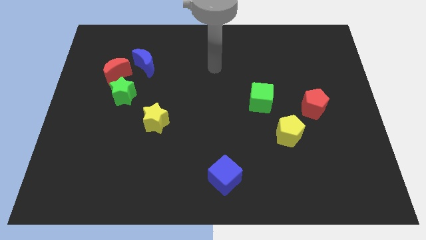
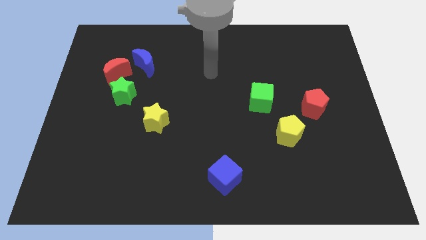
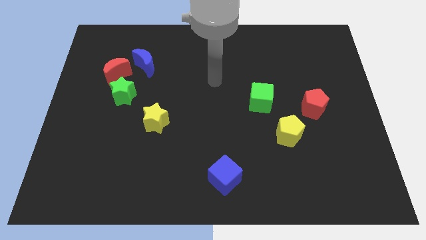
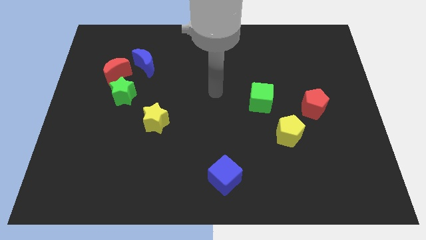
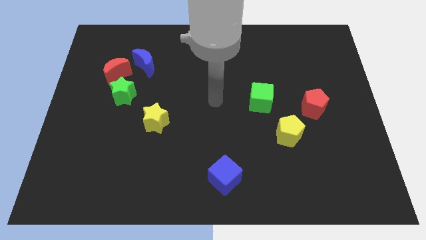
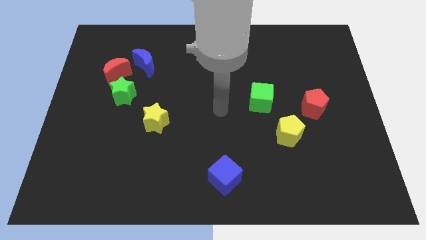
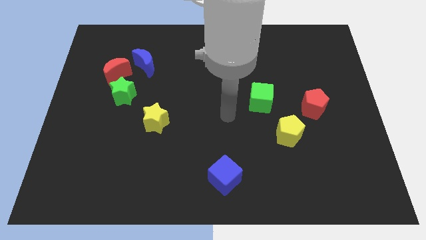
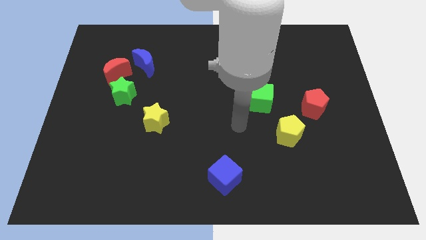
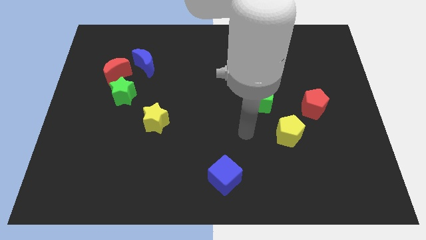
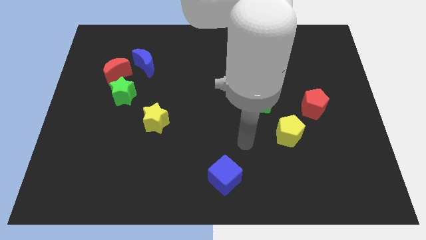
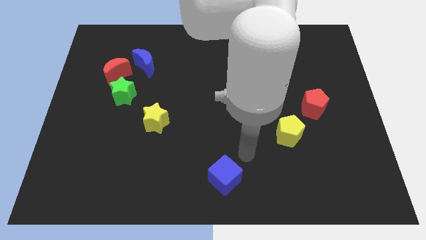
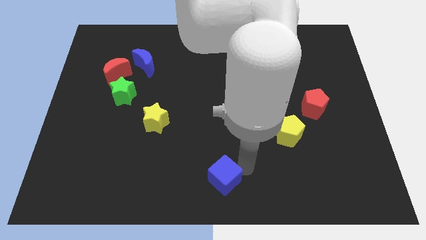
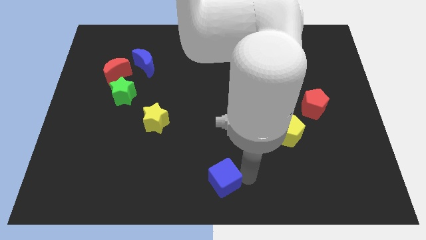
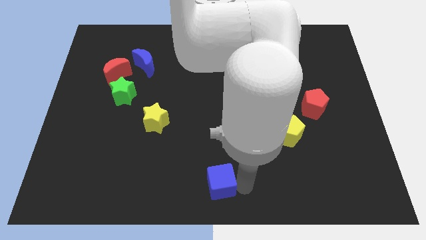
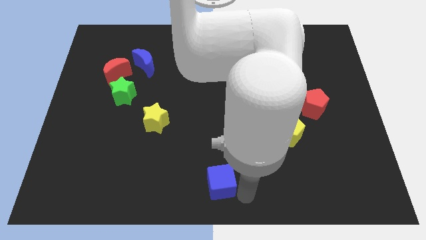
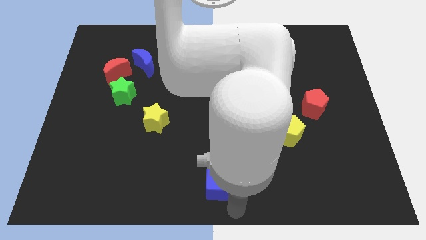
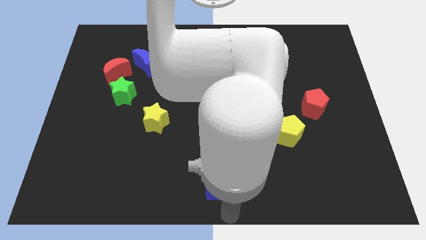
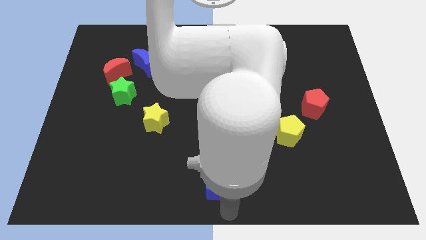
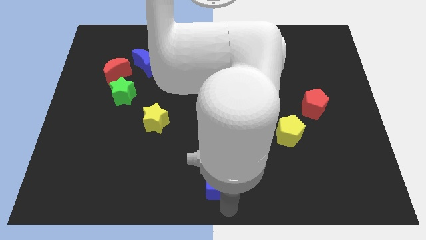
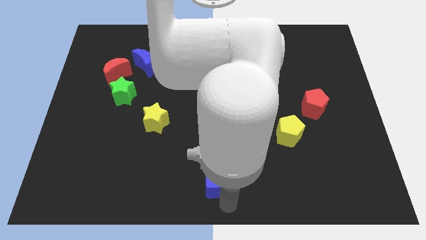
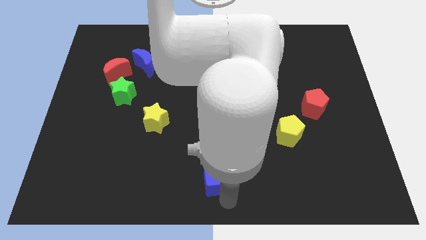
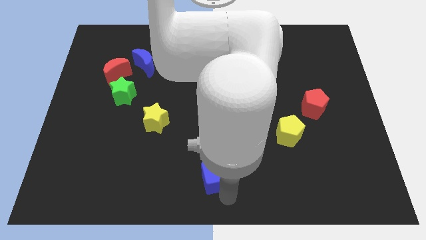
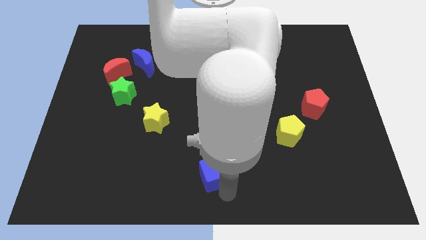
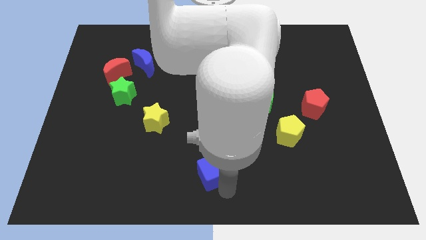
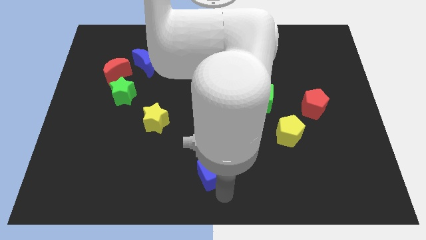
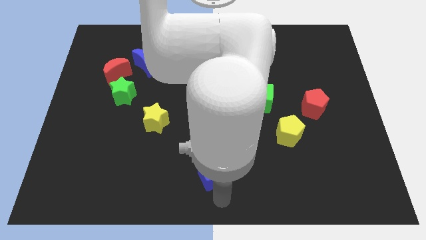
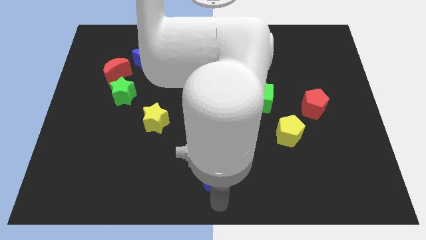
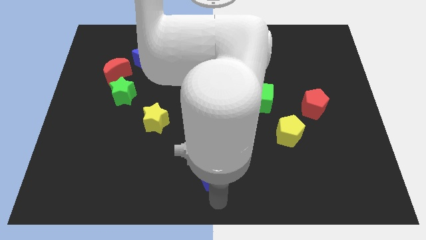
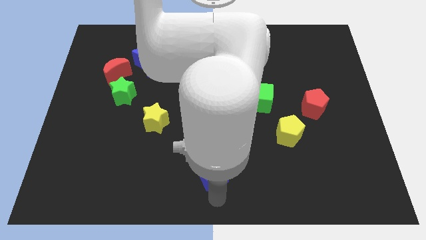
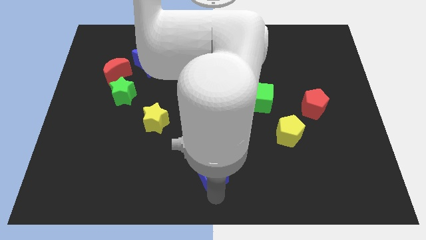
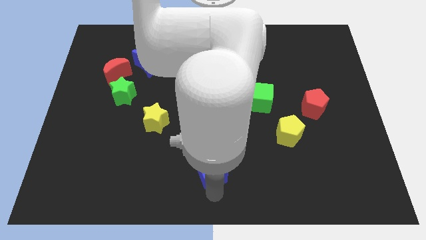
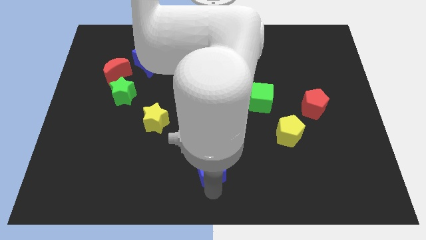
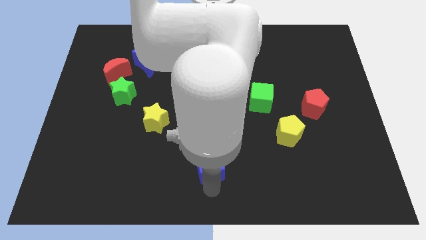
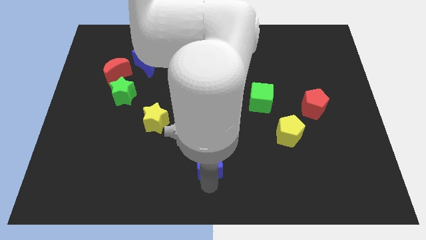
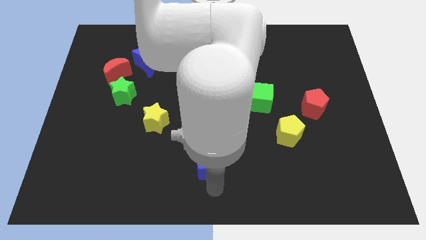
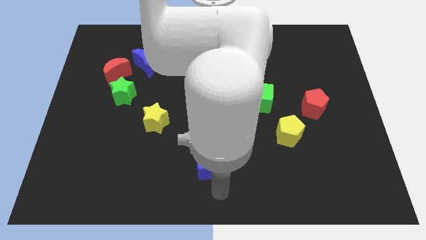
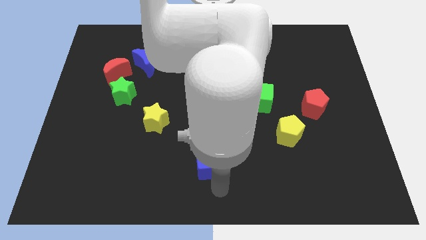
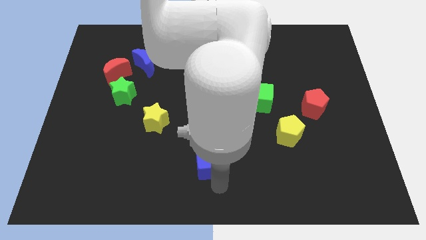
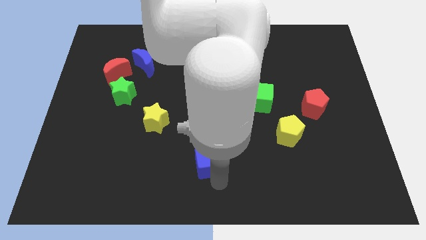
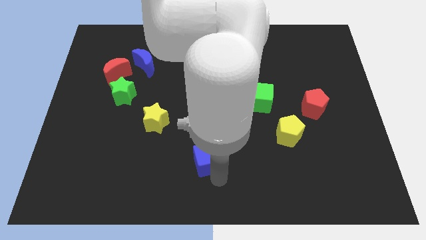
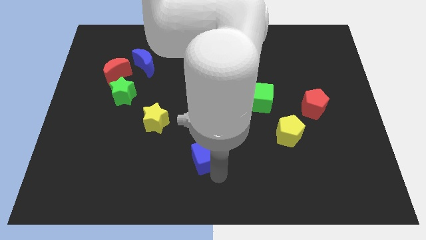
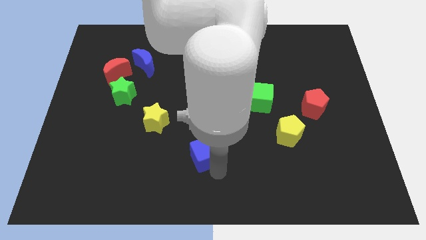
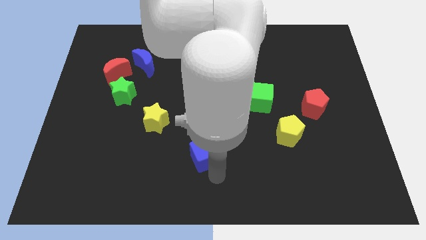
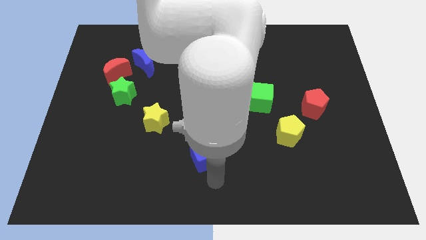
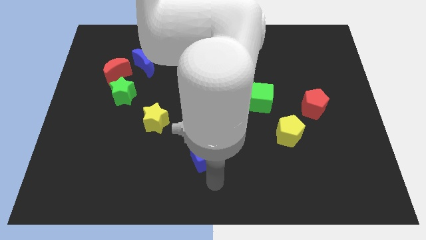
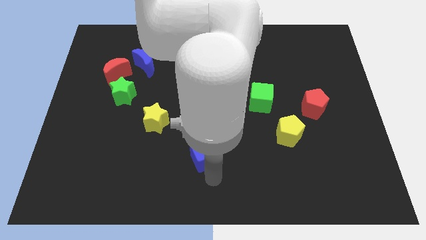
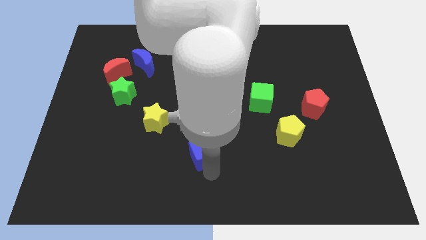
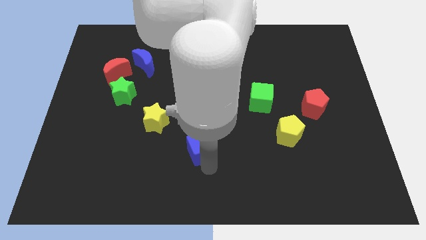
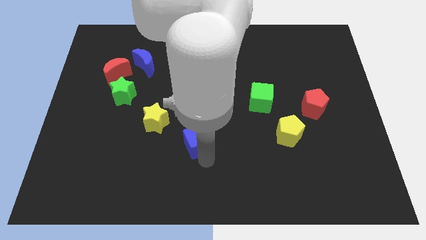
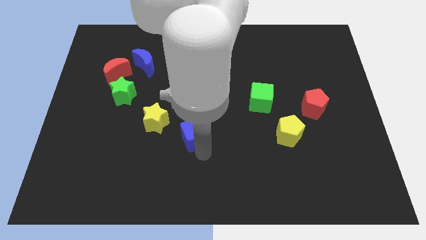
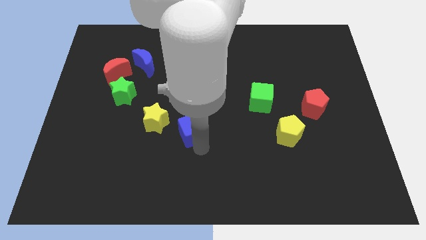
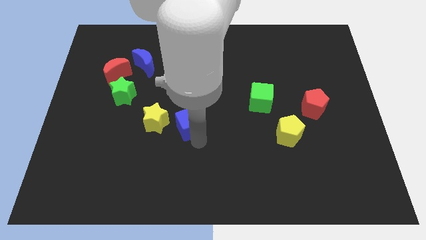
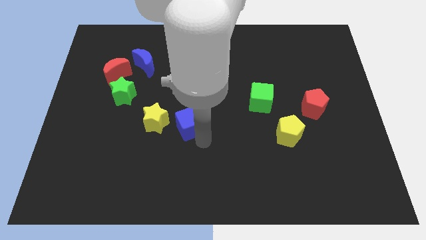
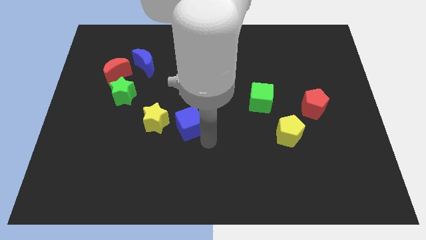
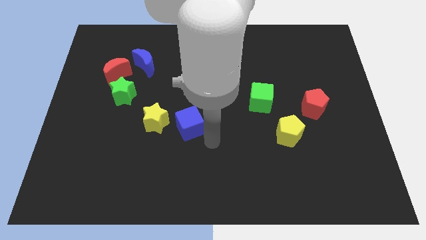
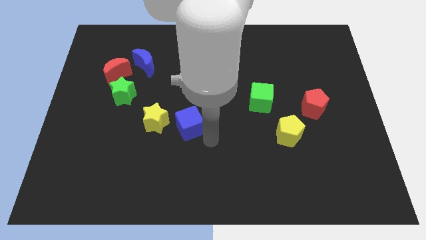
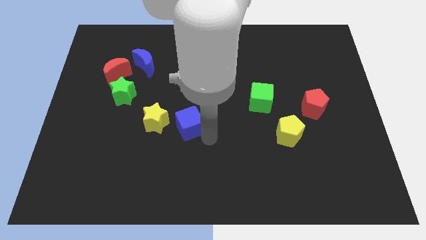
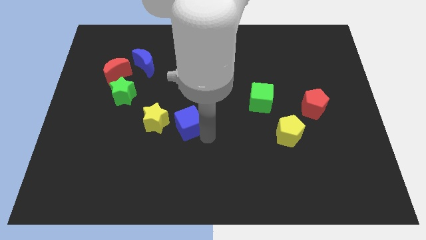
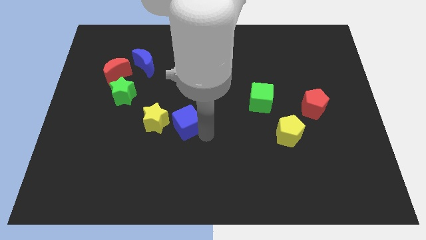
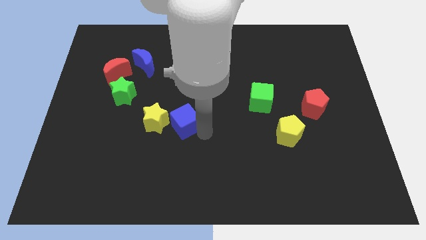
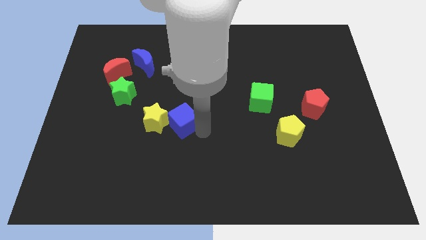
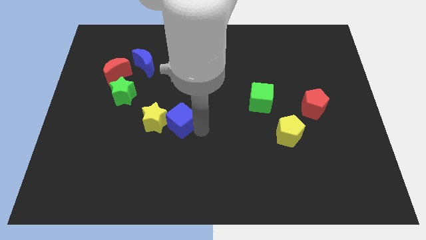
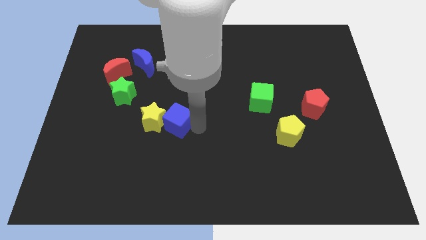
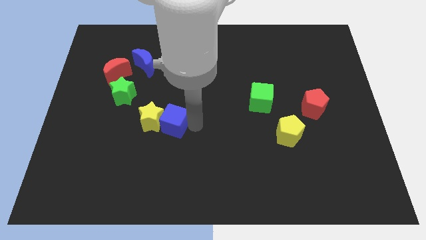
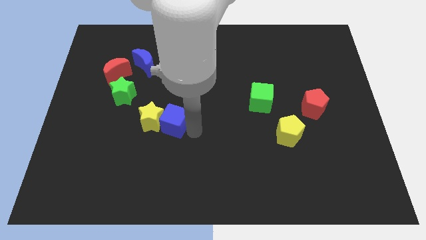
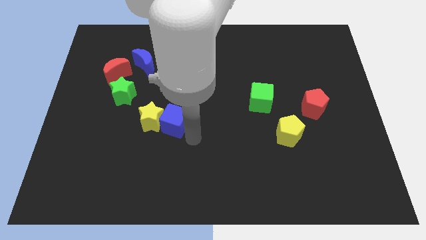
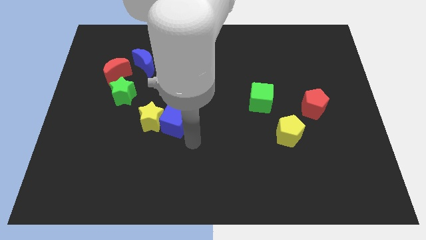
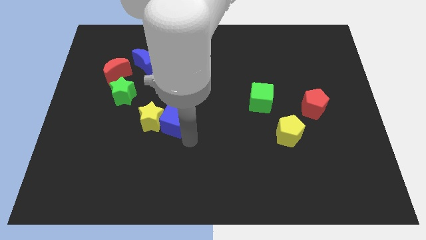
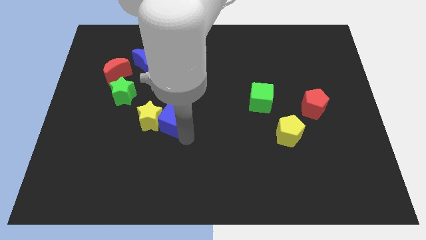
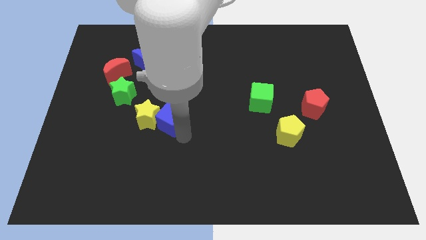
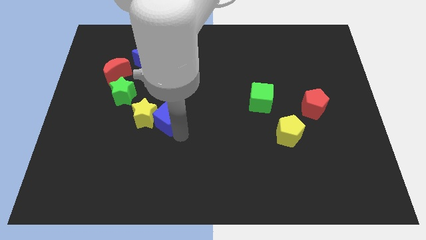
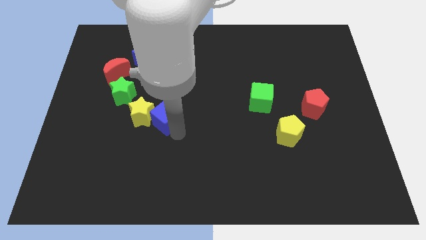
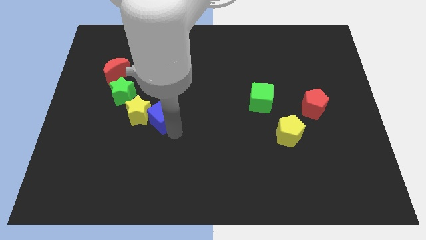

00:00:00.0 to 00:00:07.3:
put the blue cube to the bottom right of the green star
